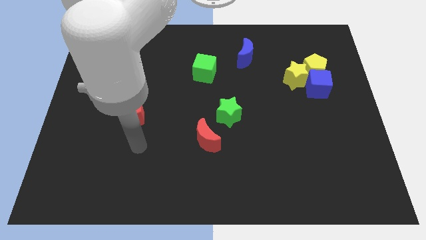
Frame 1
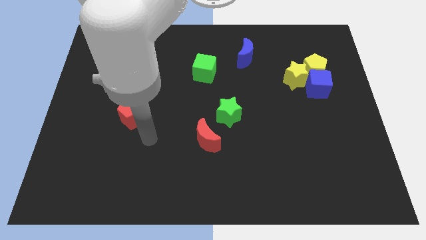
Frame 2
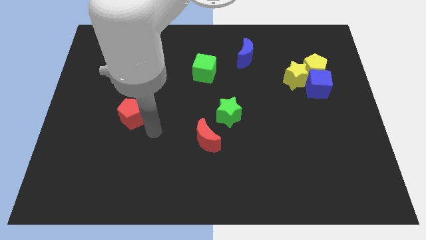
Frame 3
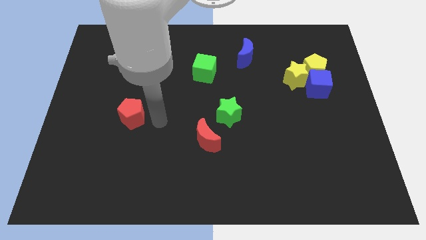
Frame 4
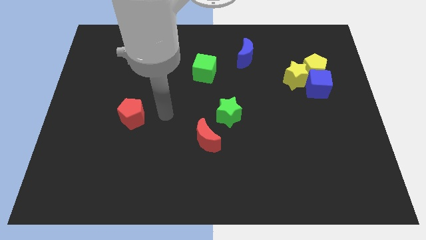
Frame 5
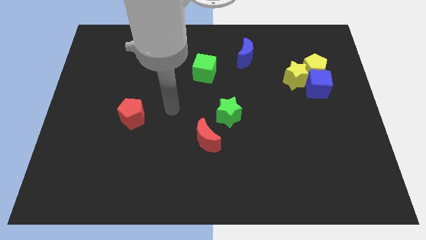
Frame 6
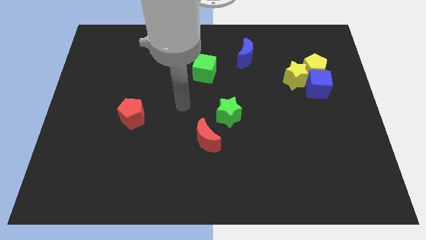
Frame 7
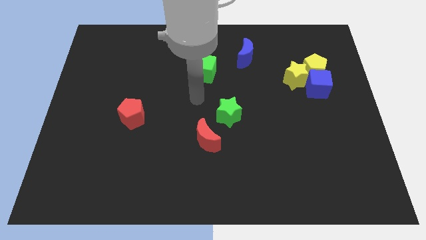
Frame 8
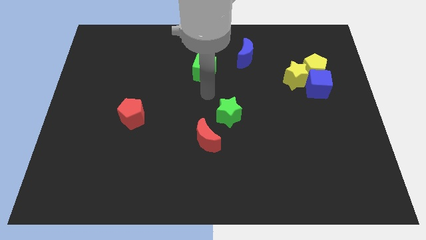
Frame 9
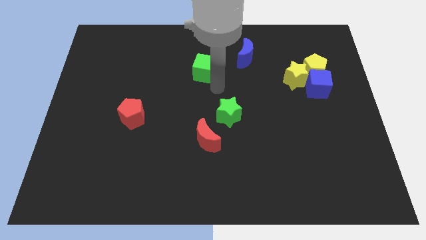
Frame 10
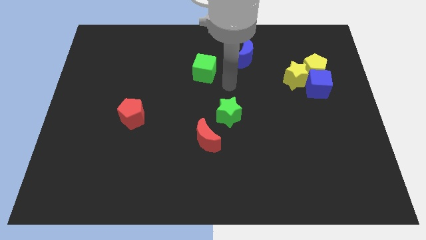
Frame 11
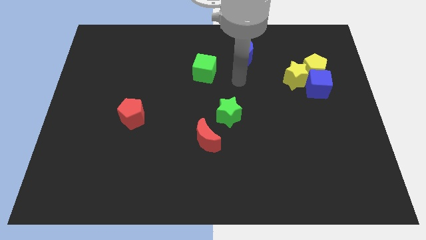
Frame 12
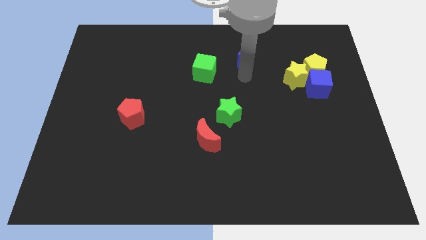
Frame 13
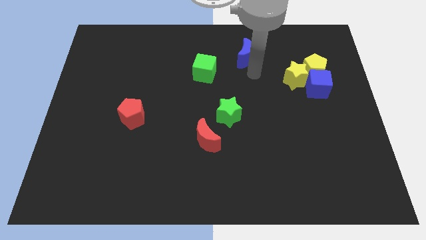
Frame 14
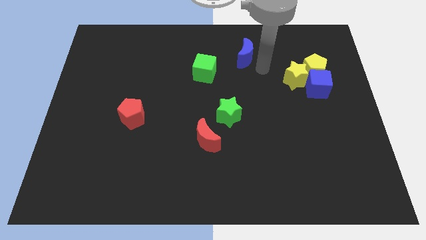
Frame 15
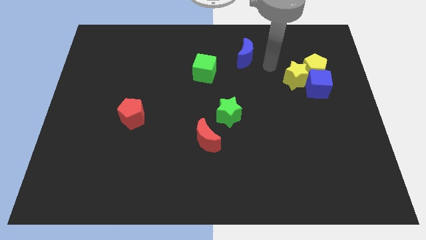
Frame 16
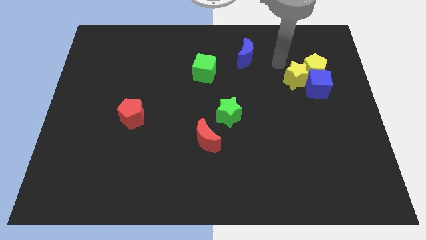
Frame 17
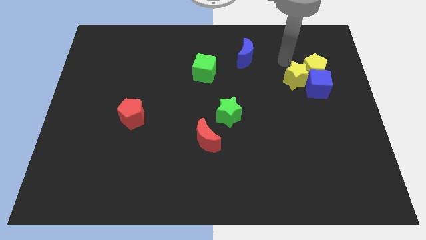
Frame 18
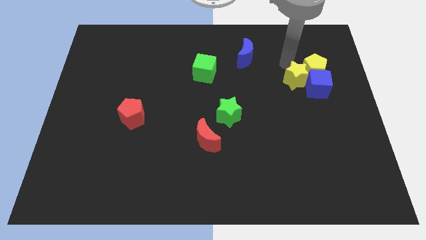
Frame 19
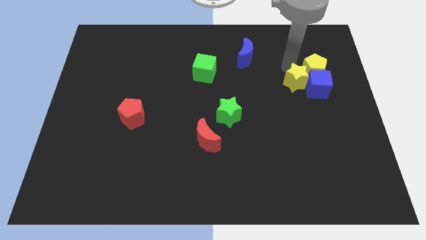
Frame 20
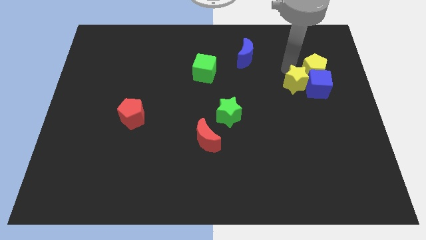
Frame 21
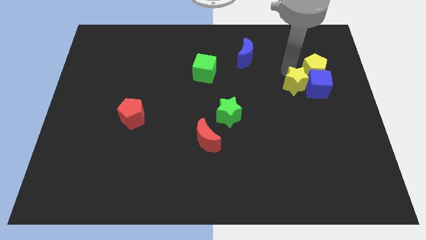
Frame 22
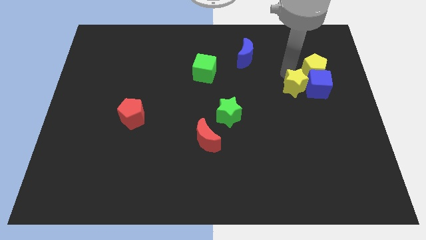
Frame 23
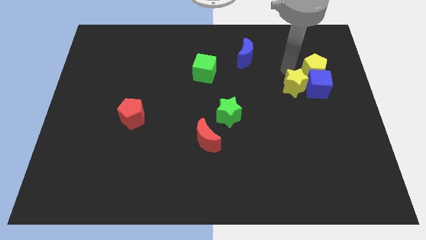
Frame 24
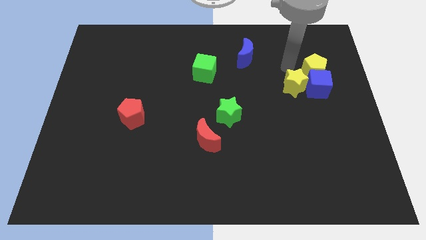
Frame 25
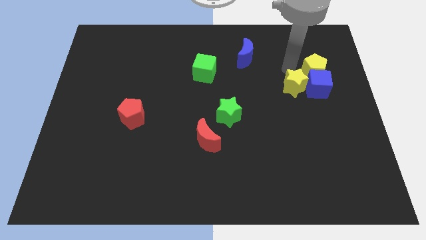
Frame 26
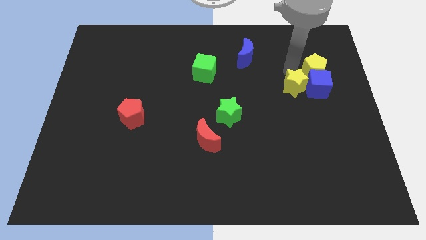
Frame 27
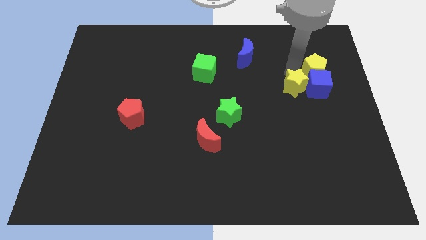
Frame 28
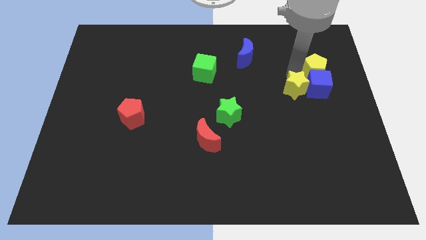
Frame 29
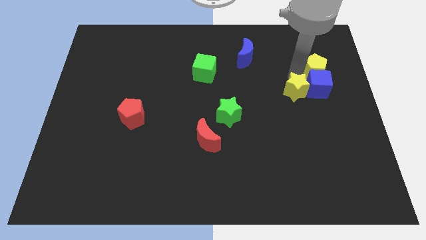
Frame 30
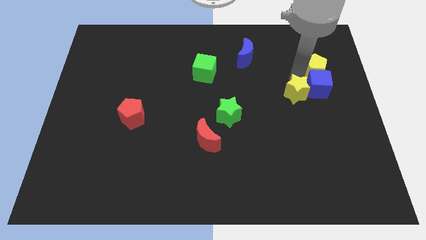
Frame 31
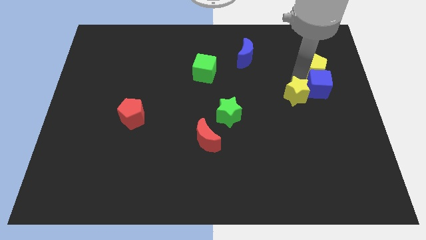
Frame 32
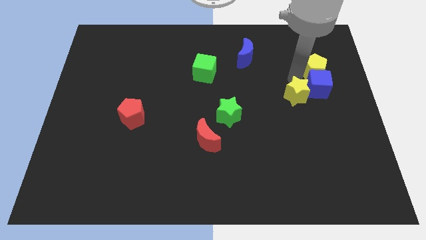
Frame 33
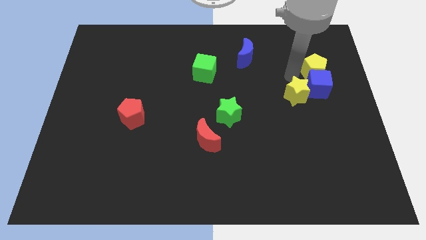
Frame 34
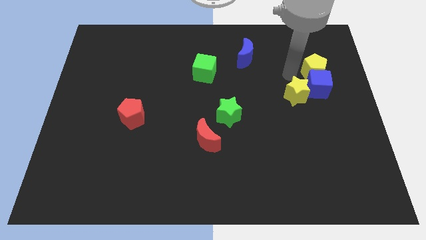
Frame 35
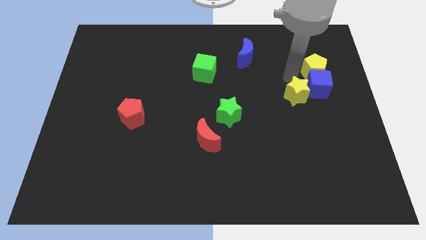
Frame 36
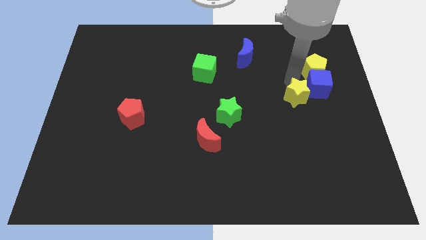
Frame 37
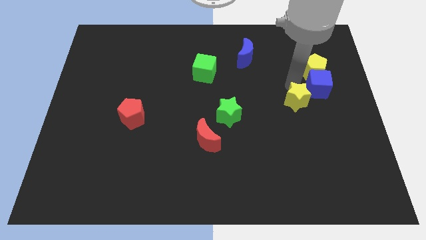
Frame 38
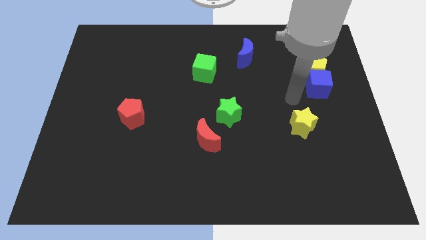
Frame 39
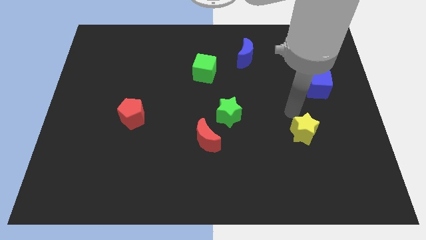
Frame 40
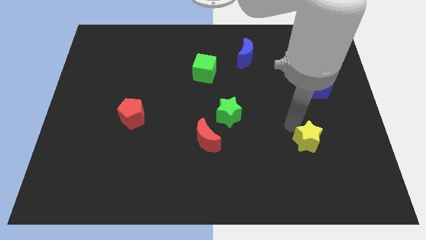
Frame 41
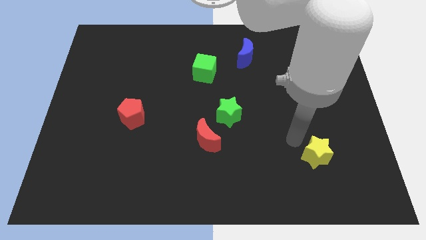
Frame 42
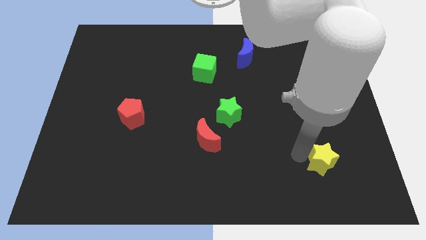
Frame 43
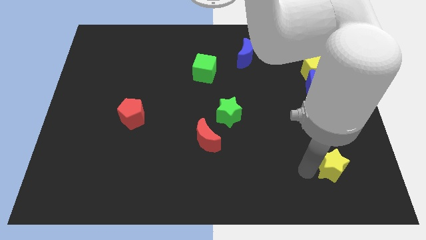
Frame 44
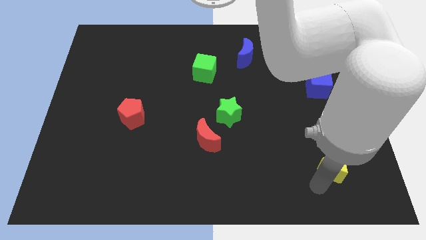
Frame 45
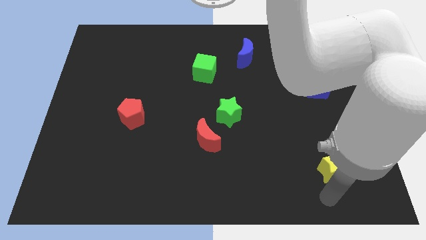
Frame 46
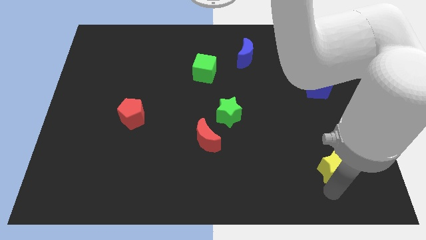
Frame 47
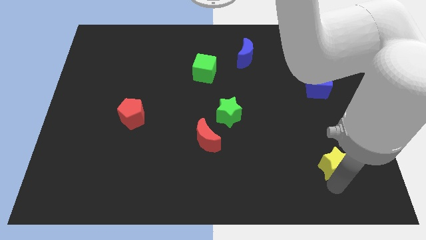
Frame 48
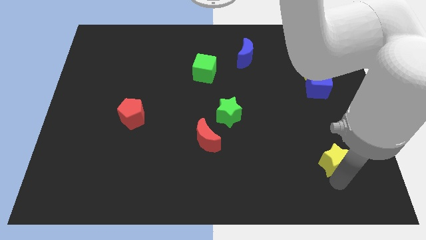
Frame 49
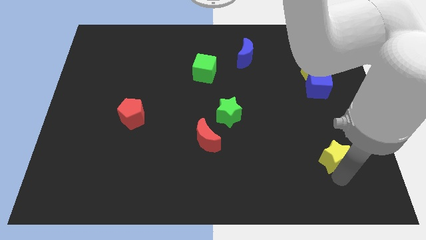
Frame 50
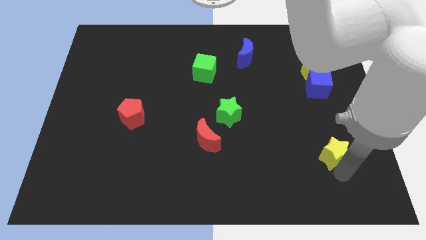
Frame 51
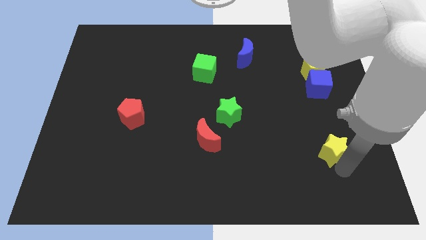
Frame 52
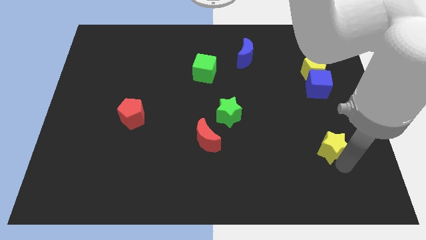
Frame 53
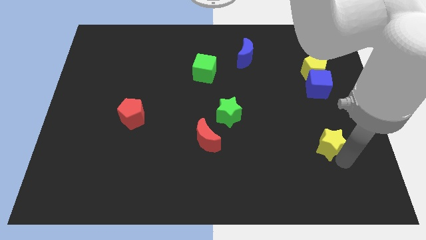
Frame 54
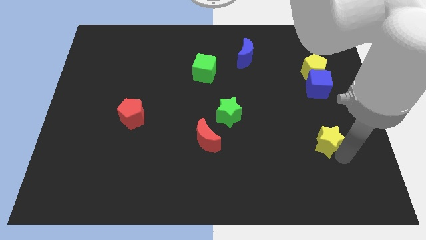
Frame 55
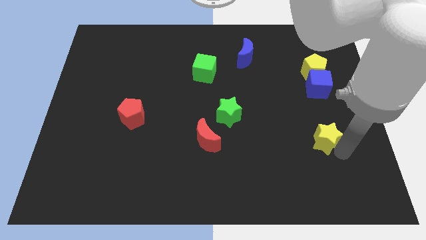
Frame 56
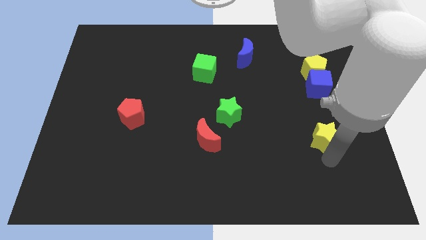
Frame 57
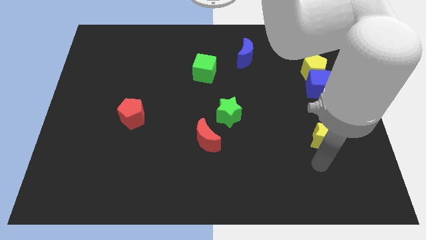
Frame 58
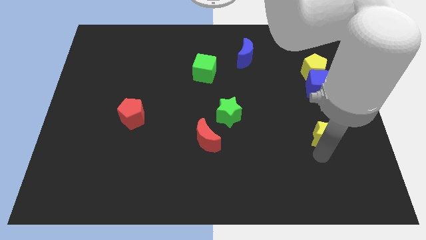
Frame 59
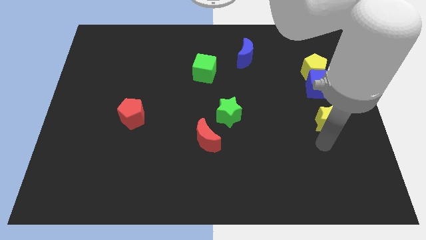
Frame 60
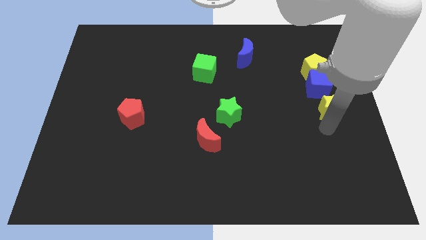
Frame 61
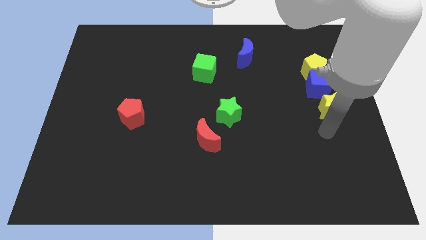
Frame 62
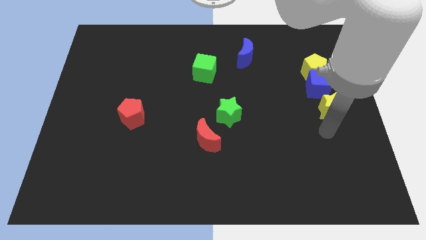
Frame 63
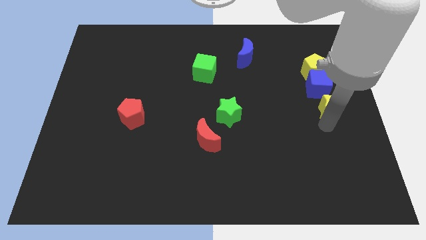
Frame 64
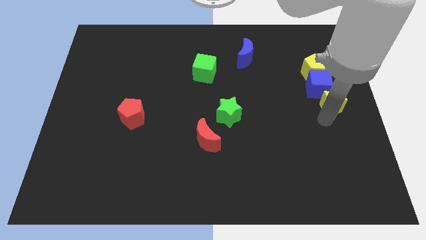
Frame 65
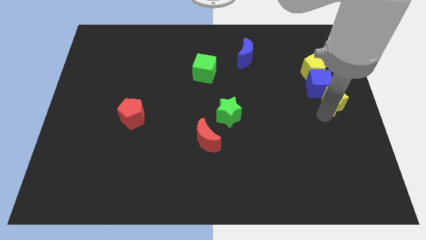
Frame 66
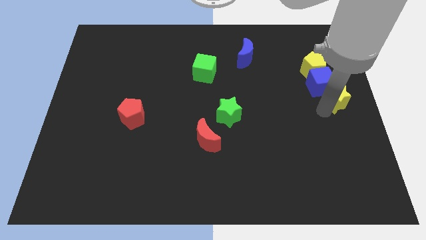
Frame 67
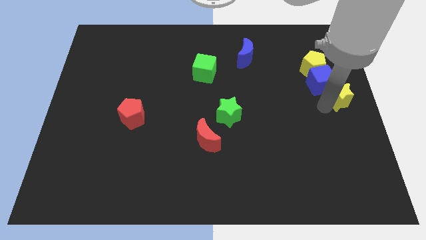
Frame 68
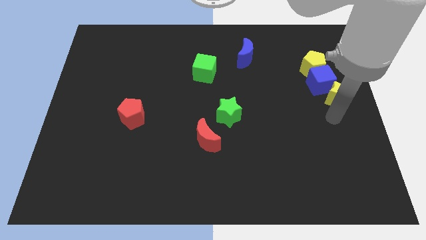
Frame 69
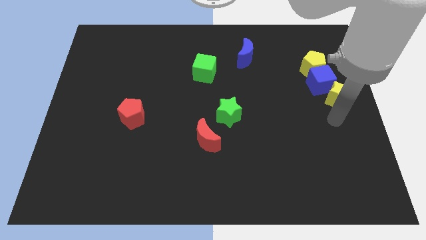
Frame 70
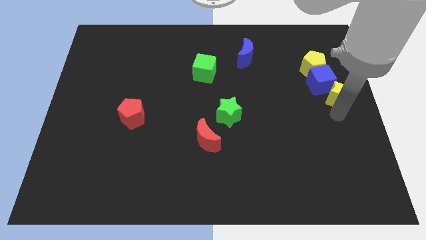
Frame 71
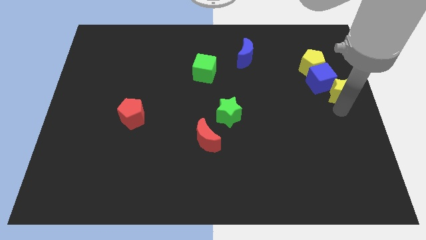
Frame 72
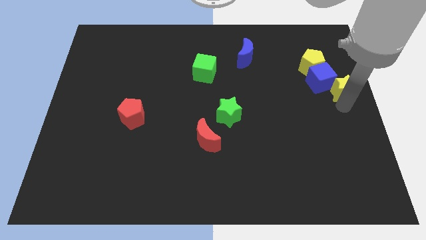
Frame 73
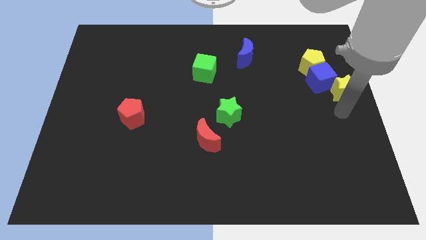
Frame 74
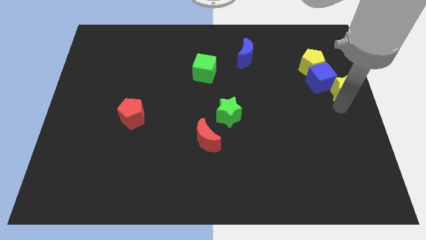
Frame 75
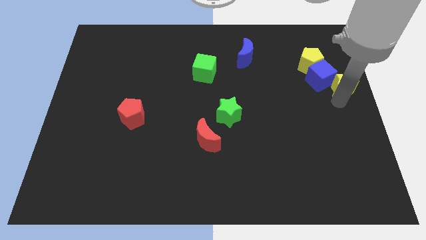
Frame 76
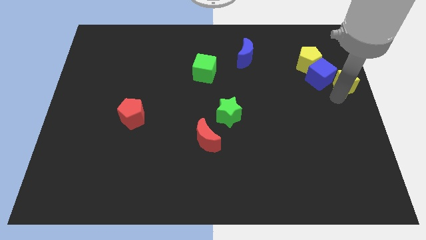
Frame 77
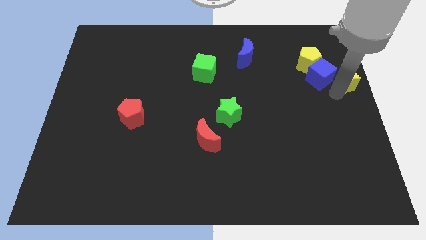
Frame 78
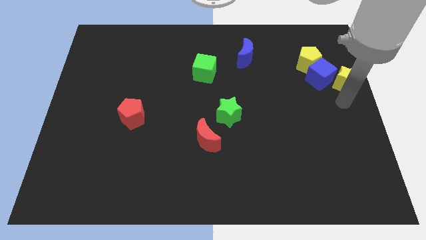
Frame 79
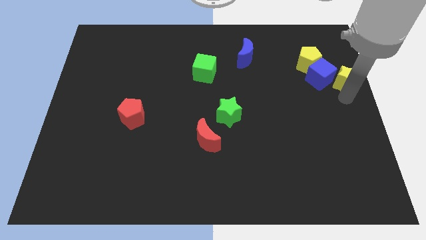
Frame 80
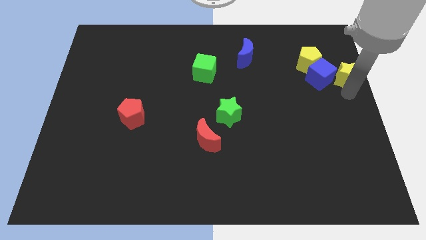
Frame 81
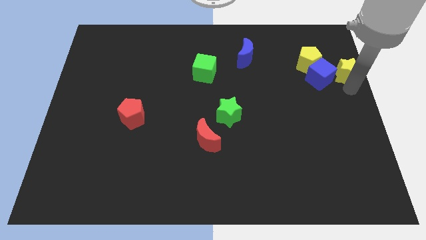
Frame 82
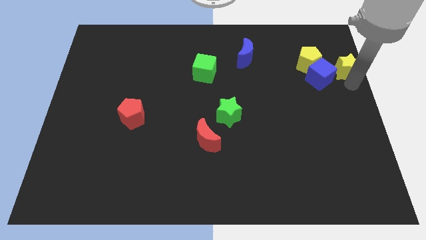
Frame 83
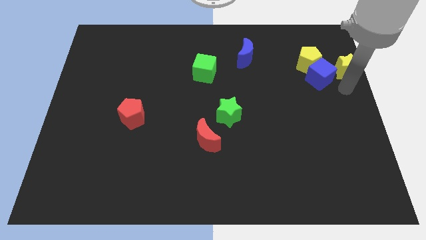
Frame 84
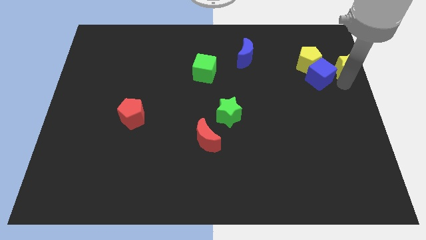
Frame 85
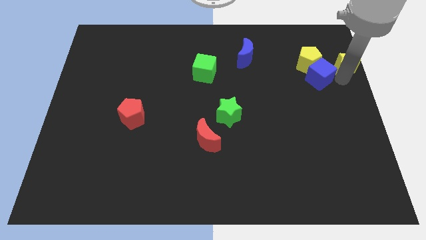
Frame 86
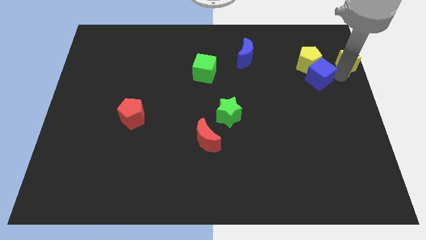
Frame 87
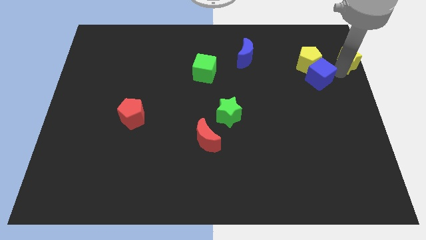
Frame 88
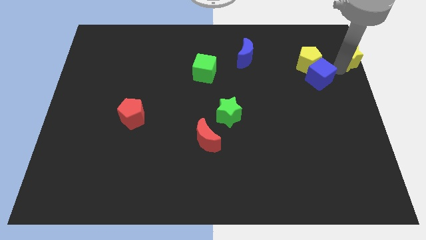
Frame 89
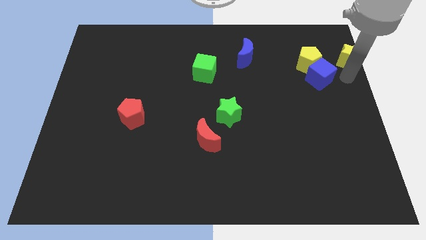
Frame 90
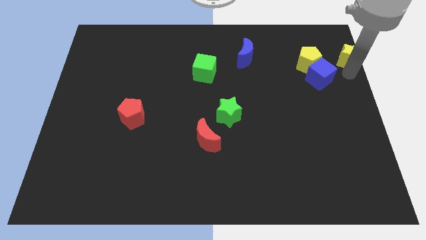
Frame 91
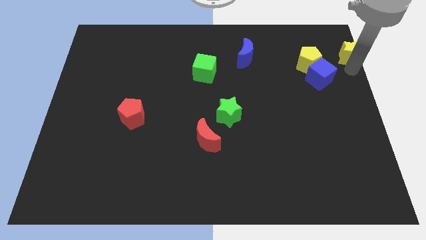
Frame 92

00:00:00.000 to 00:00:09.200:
move the yellow star to the top right
